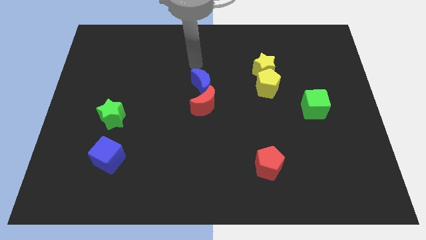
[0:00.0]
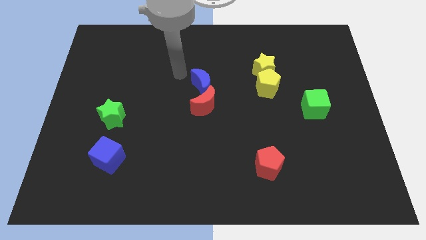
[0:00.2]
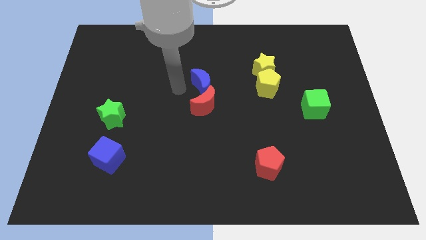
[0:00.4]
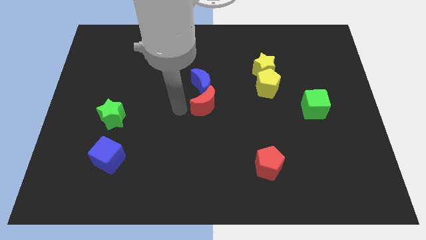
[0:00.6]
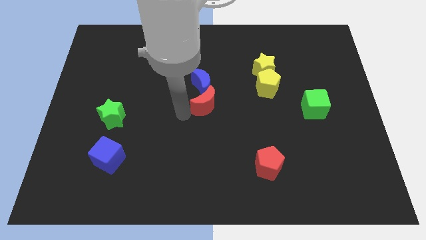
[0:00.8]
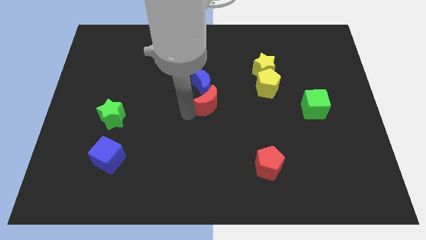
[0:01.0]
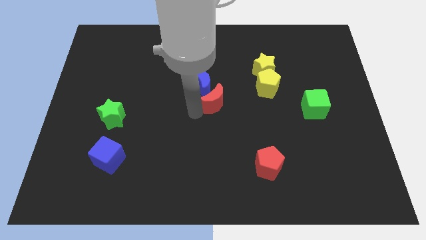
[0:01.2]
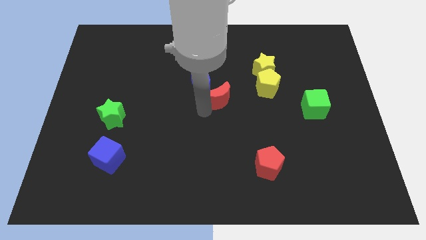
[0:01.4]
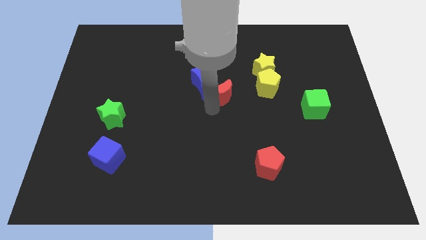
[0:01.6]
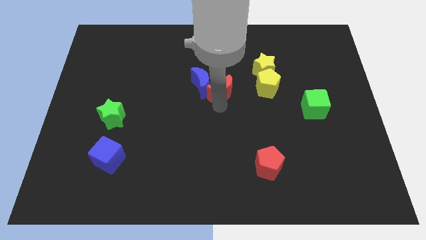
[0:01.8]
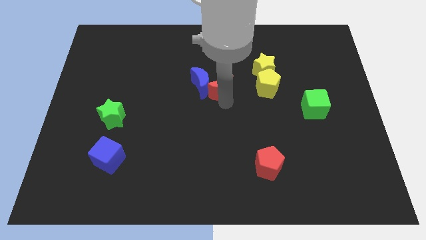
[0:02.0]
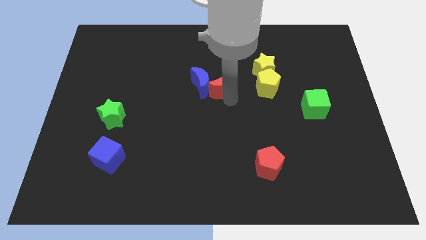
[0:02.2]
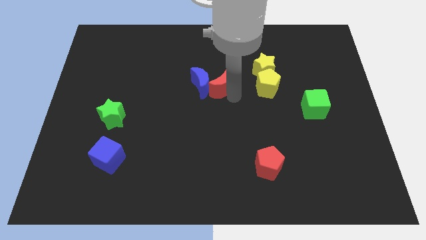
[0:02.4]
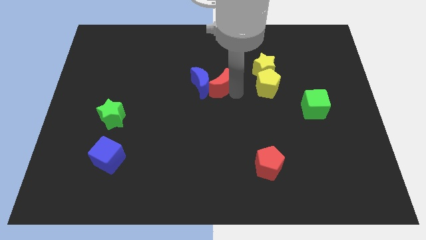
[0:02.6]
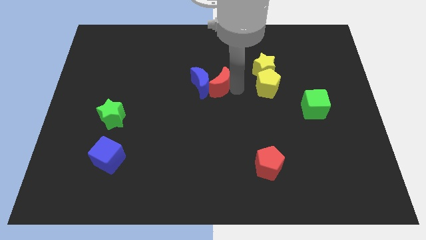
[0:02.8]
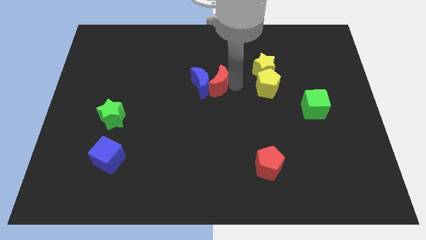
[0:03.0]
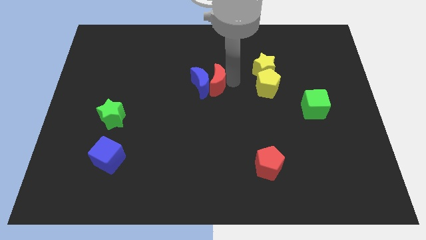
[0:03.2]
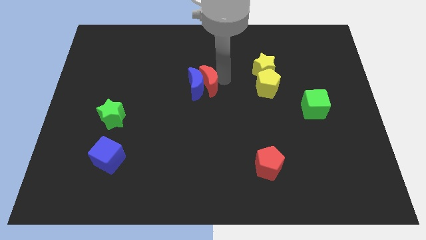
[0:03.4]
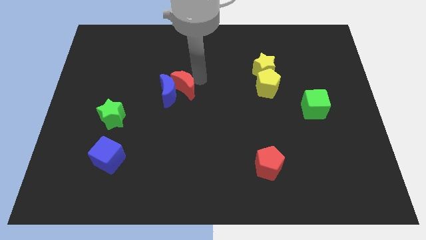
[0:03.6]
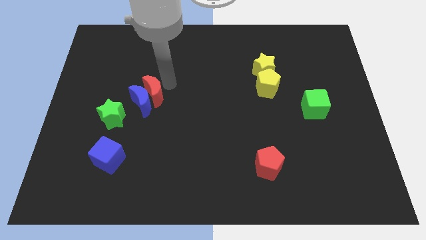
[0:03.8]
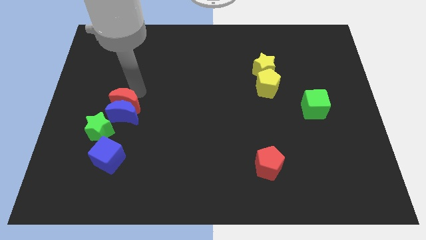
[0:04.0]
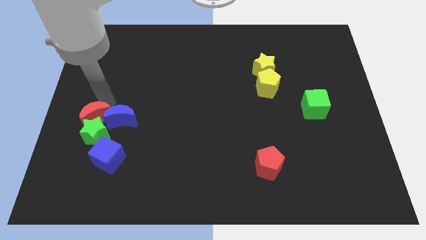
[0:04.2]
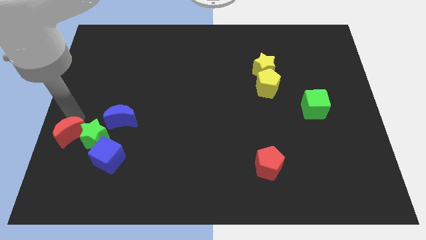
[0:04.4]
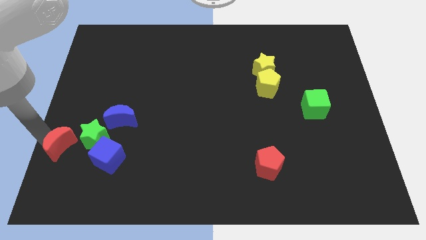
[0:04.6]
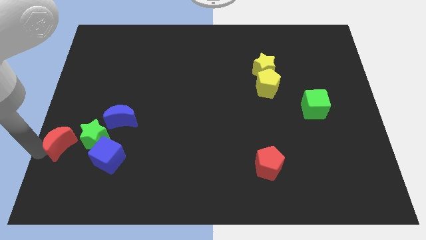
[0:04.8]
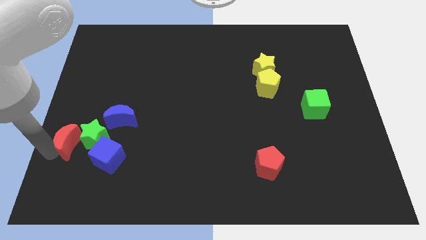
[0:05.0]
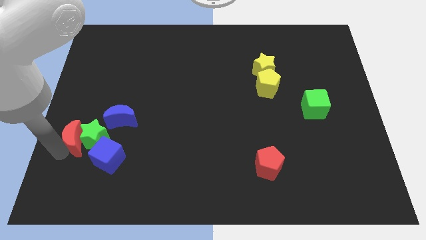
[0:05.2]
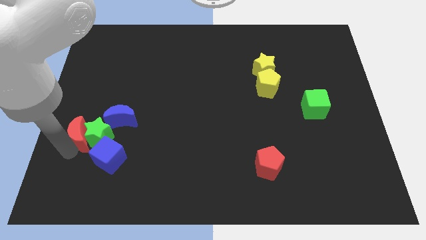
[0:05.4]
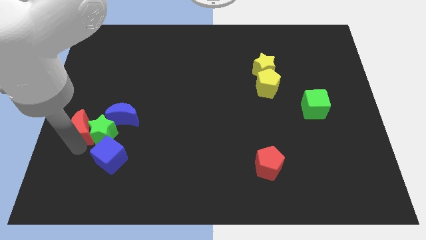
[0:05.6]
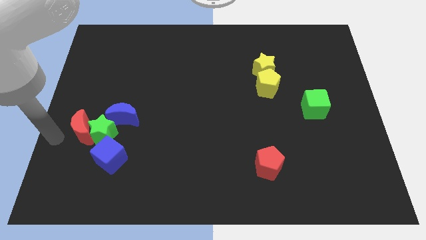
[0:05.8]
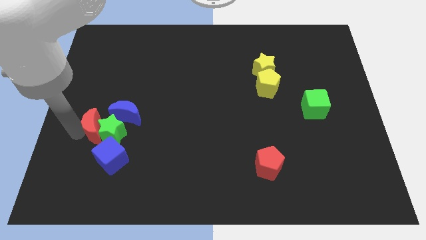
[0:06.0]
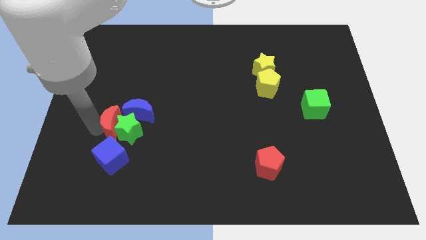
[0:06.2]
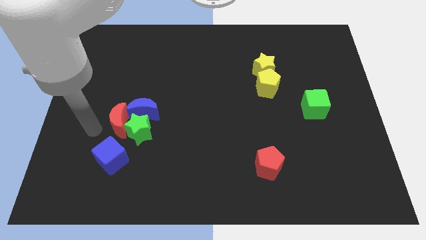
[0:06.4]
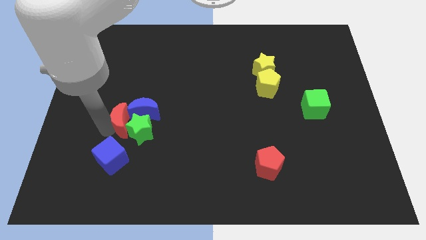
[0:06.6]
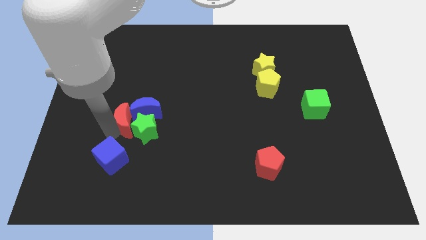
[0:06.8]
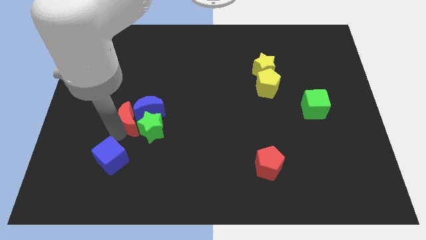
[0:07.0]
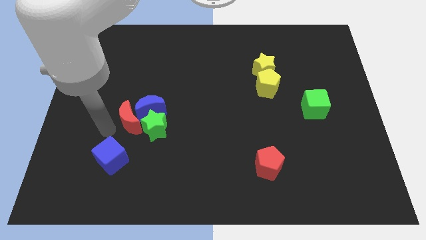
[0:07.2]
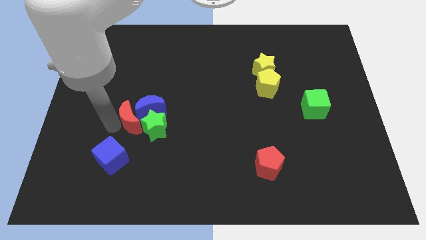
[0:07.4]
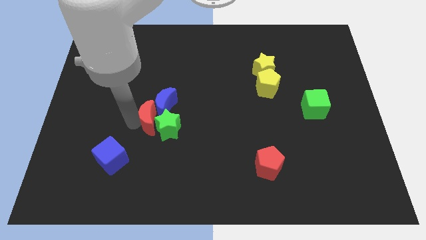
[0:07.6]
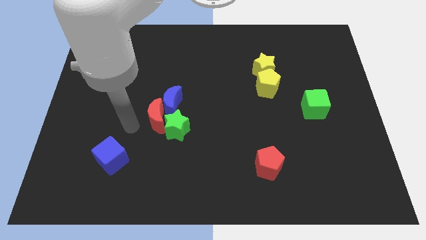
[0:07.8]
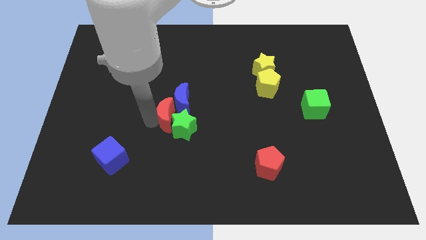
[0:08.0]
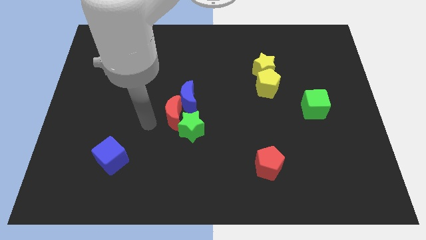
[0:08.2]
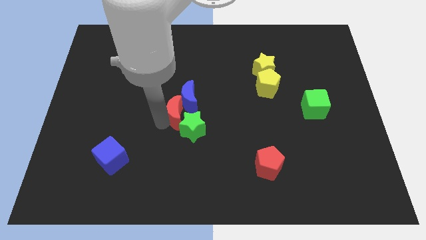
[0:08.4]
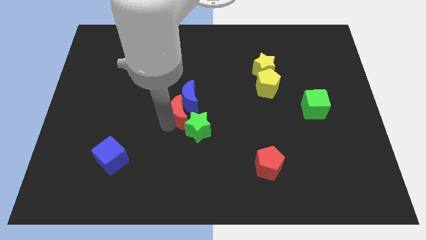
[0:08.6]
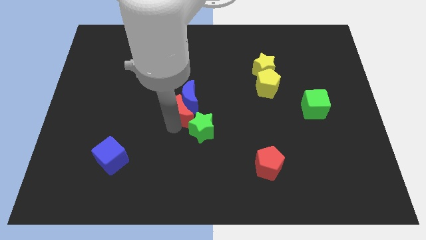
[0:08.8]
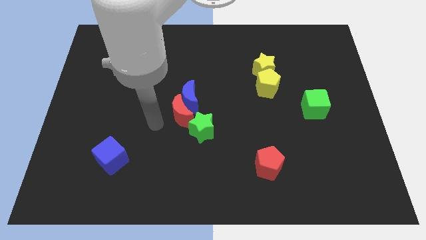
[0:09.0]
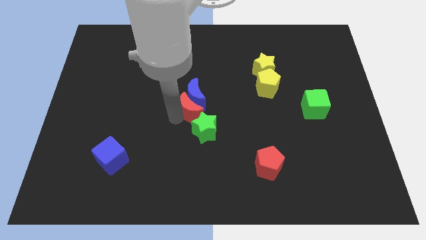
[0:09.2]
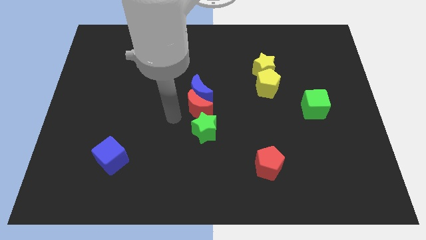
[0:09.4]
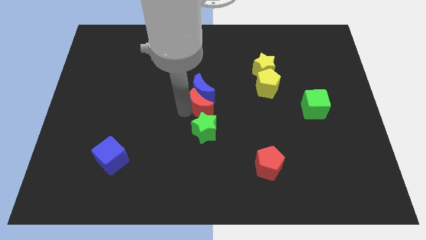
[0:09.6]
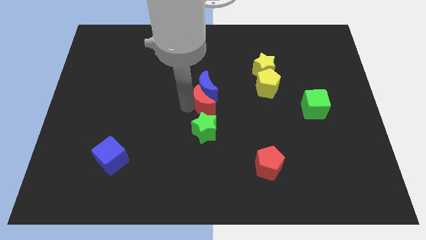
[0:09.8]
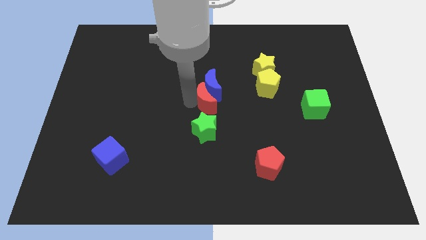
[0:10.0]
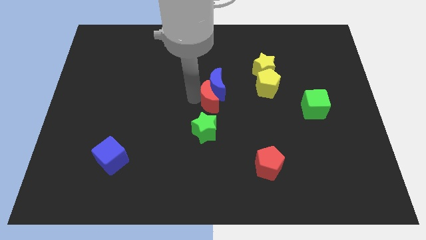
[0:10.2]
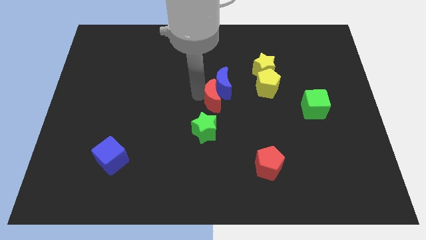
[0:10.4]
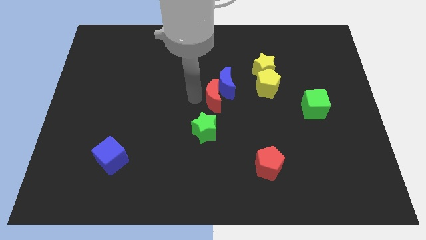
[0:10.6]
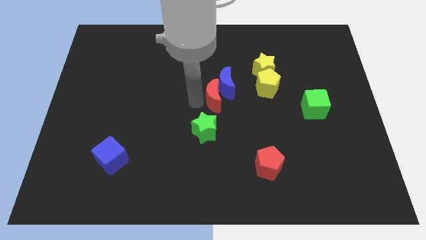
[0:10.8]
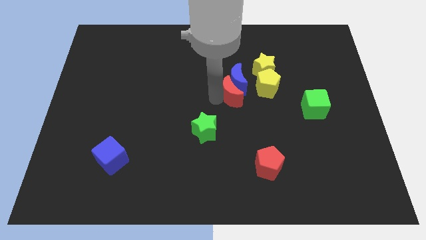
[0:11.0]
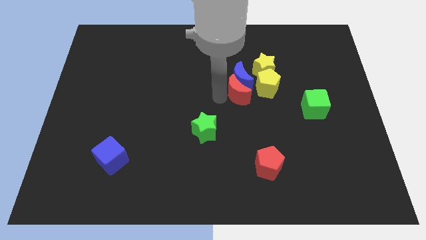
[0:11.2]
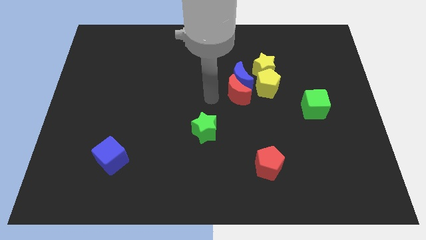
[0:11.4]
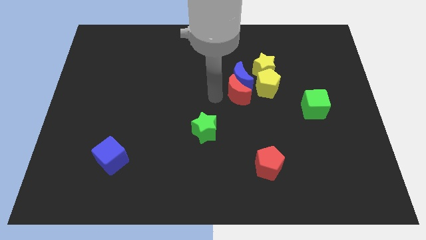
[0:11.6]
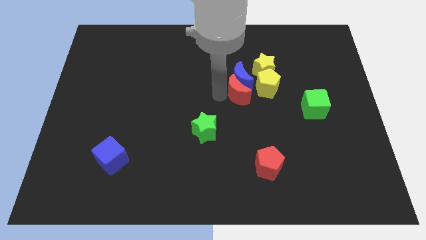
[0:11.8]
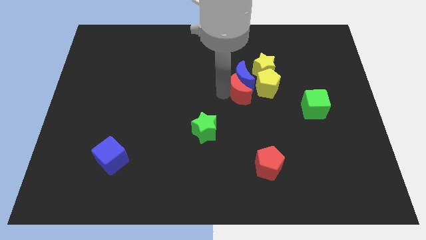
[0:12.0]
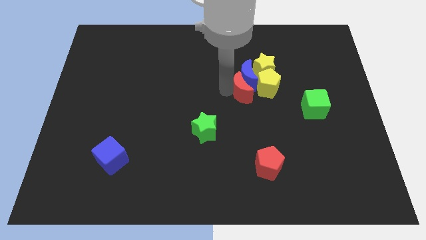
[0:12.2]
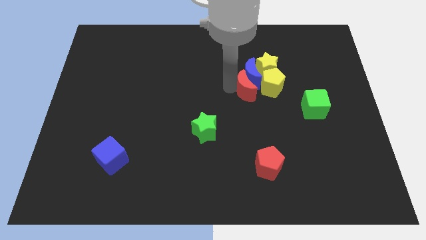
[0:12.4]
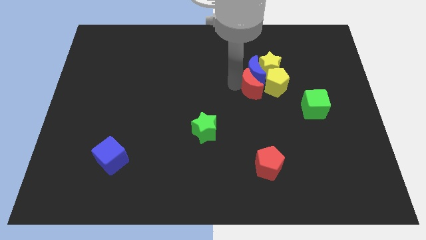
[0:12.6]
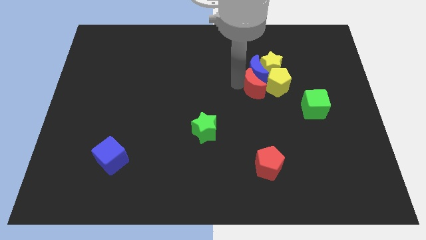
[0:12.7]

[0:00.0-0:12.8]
move the red moon to the yellow pentagon

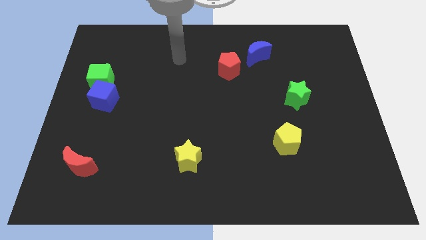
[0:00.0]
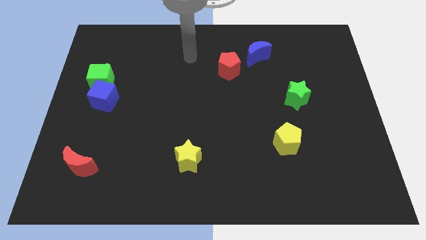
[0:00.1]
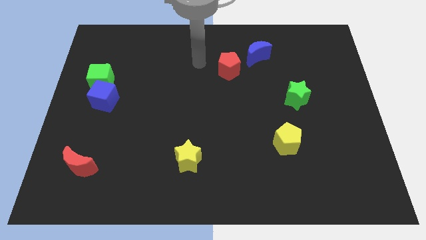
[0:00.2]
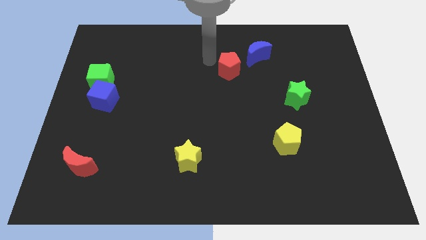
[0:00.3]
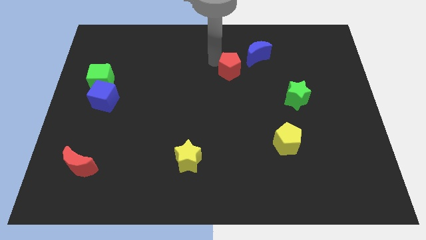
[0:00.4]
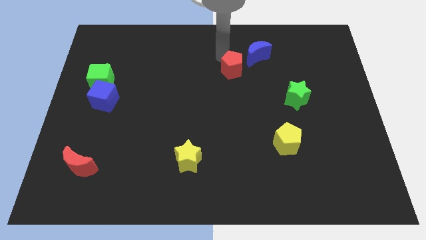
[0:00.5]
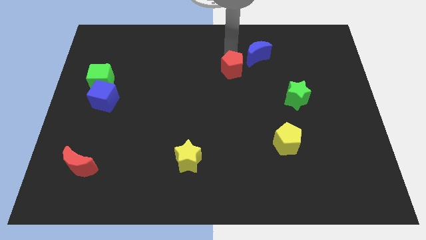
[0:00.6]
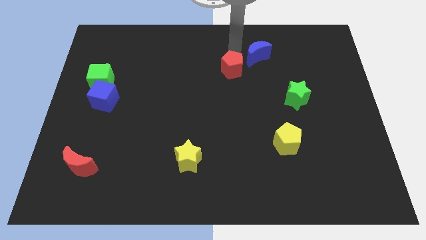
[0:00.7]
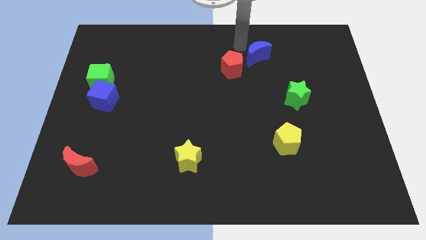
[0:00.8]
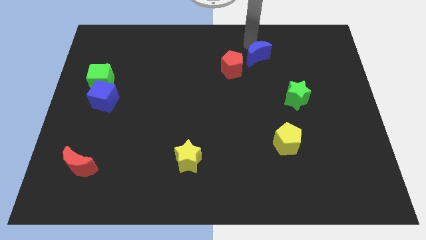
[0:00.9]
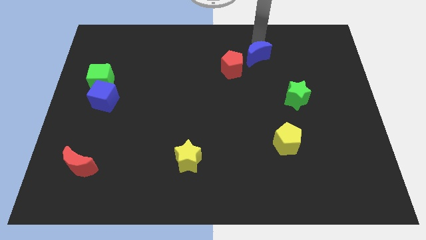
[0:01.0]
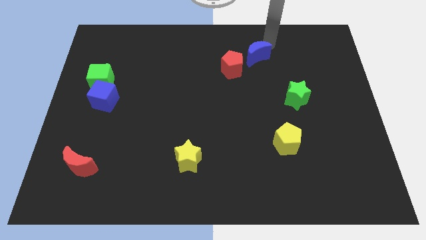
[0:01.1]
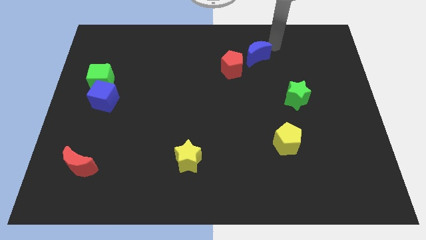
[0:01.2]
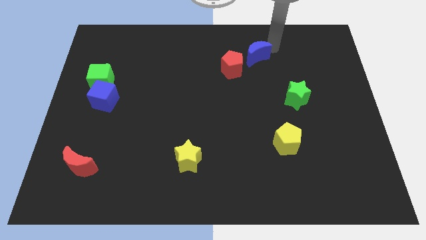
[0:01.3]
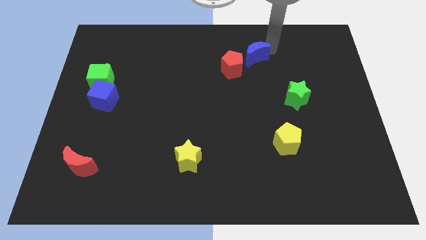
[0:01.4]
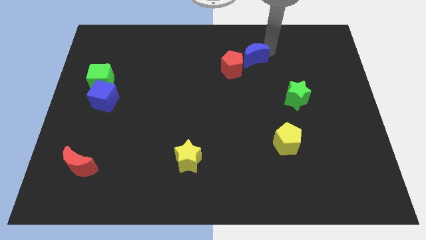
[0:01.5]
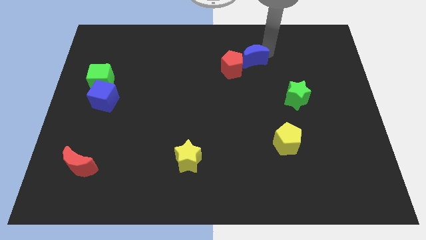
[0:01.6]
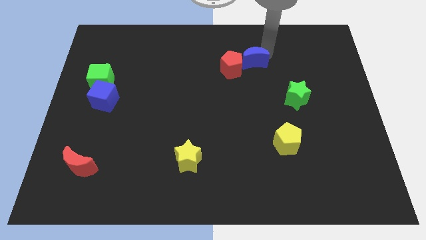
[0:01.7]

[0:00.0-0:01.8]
push the blue moon towards the red pentagon
